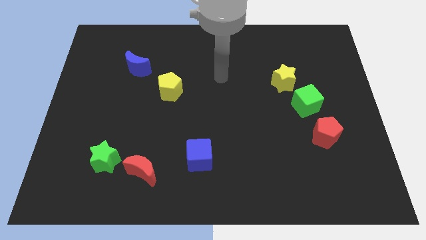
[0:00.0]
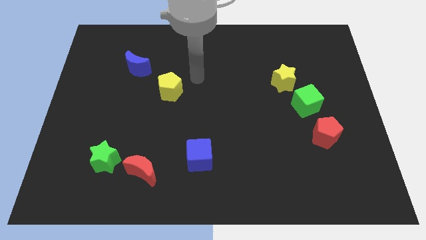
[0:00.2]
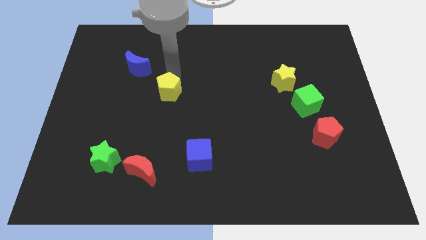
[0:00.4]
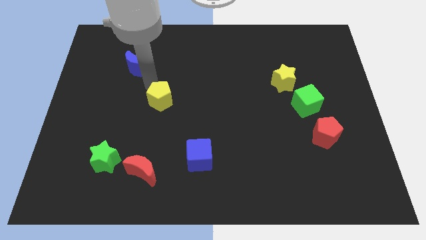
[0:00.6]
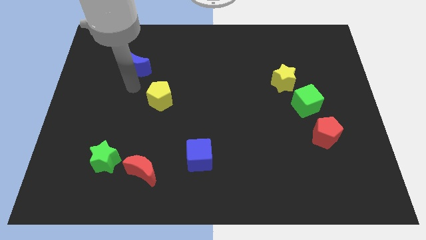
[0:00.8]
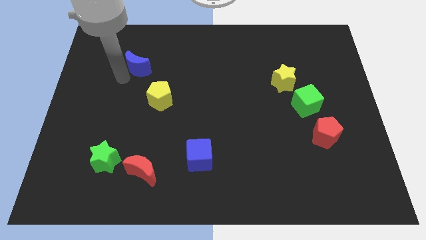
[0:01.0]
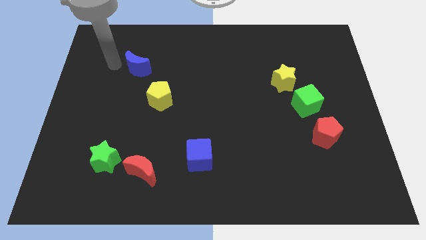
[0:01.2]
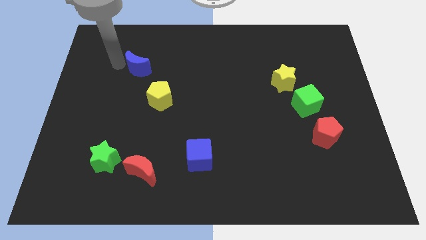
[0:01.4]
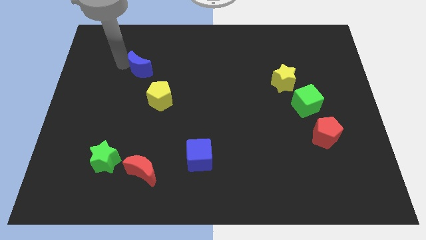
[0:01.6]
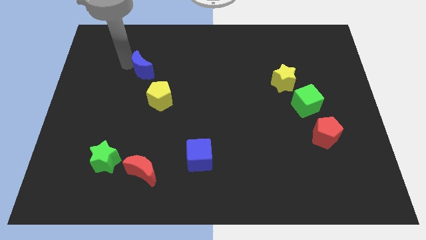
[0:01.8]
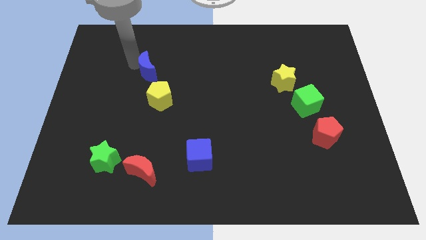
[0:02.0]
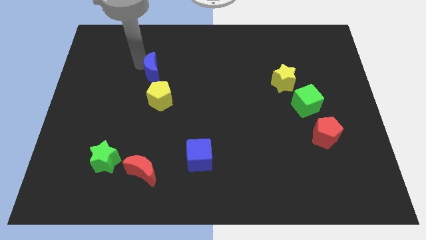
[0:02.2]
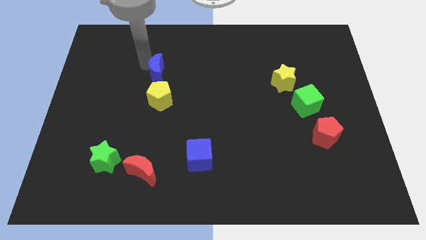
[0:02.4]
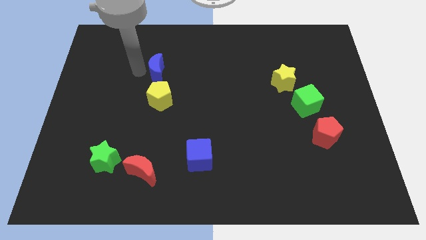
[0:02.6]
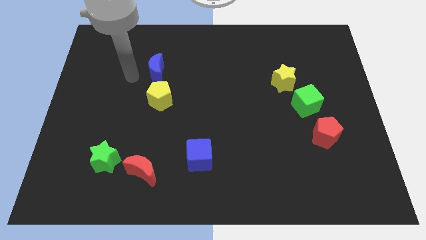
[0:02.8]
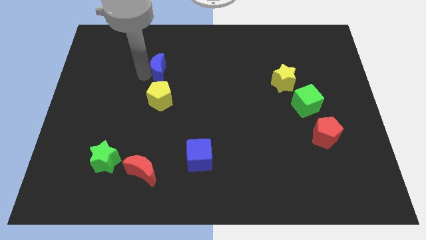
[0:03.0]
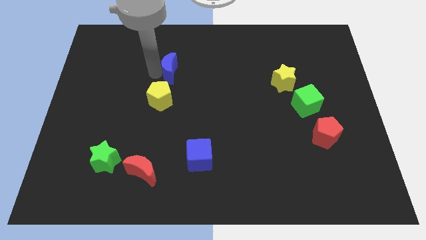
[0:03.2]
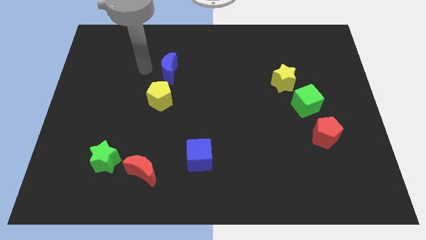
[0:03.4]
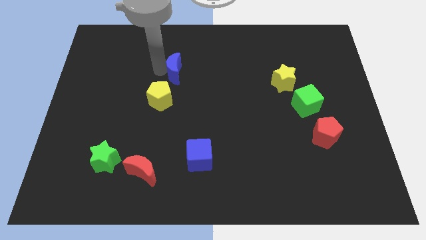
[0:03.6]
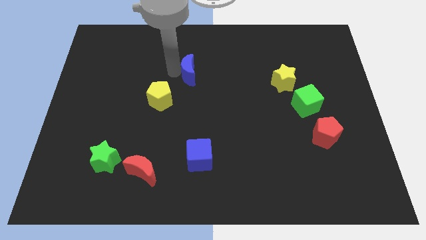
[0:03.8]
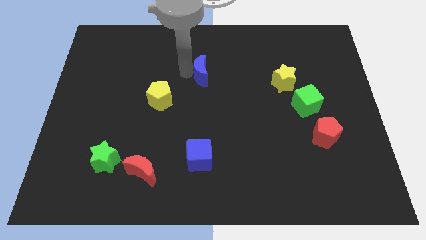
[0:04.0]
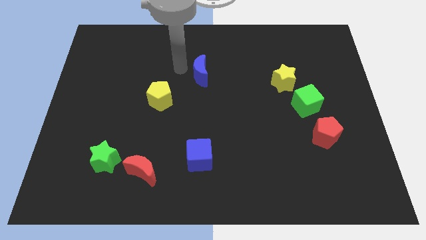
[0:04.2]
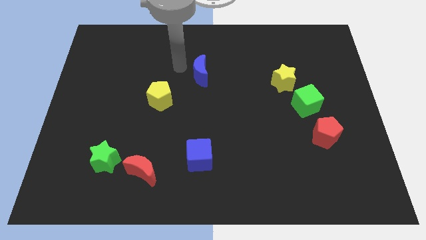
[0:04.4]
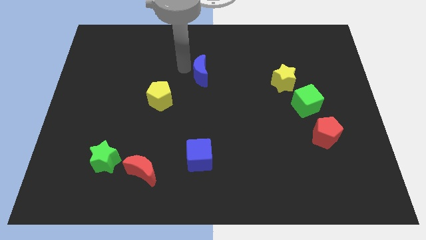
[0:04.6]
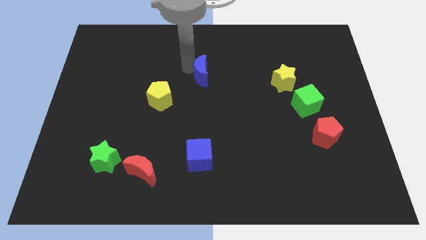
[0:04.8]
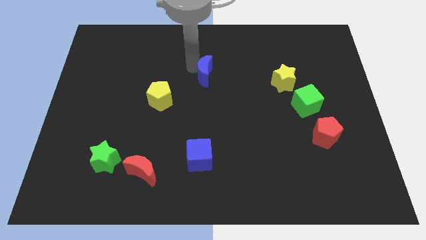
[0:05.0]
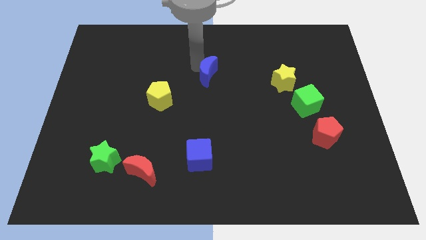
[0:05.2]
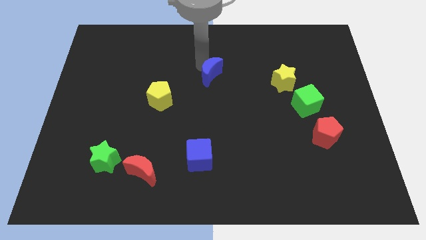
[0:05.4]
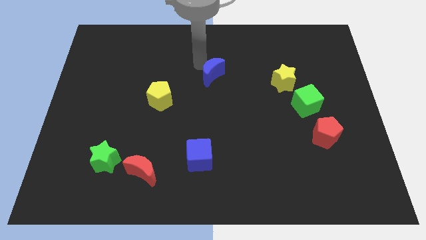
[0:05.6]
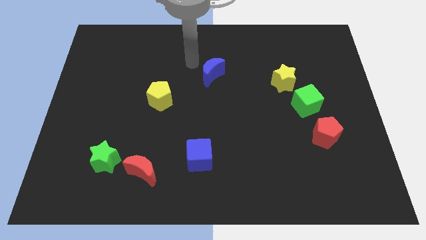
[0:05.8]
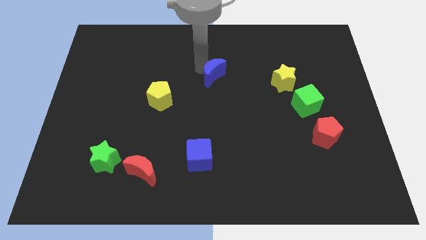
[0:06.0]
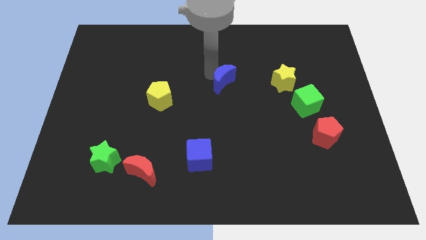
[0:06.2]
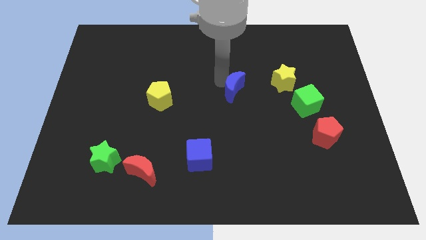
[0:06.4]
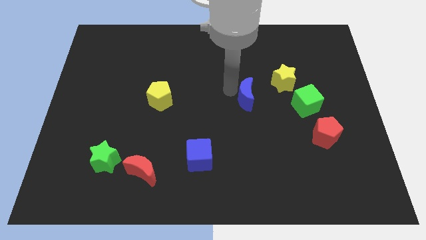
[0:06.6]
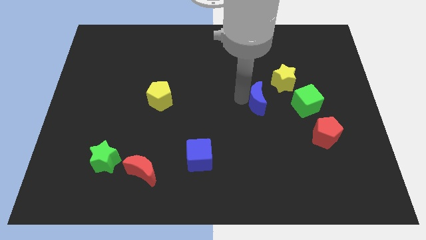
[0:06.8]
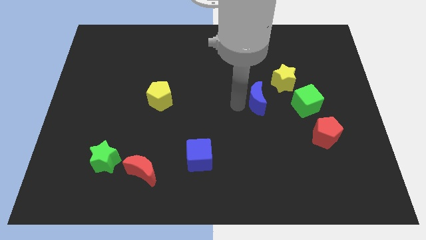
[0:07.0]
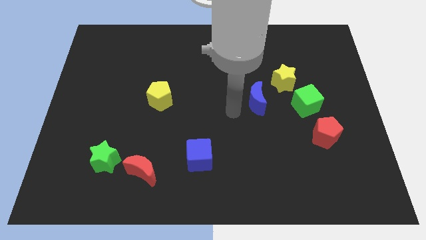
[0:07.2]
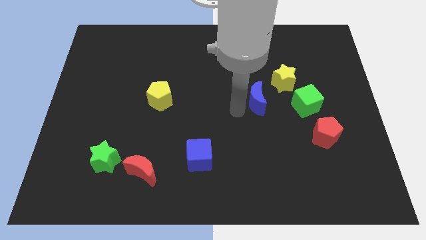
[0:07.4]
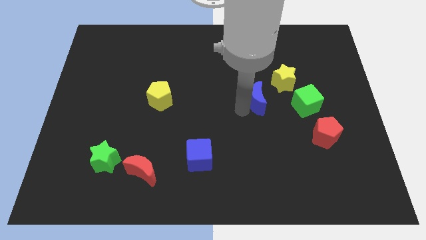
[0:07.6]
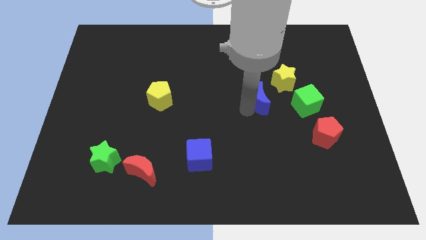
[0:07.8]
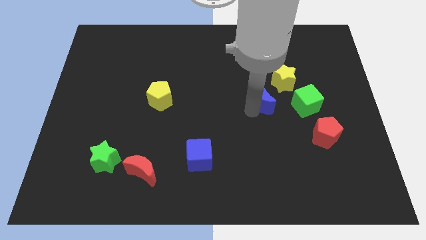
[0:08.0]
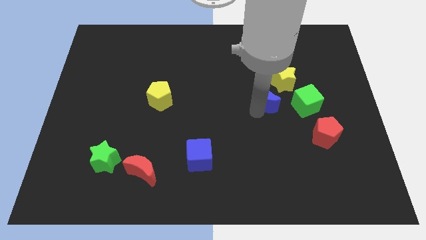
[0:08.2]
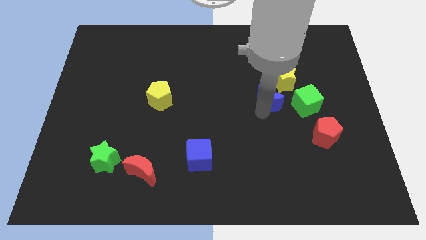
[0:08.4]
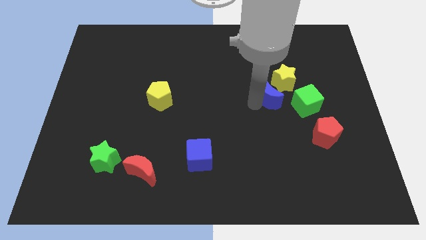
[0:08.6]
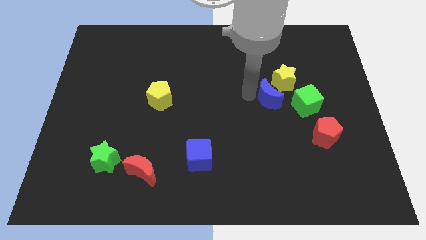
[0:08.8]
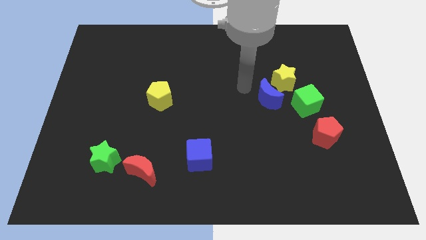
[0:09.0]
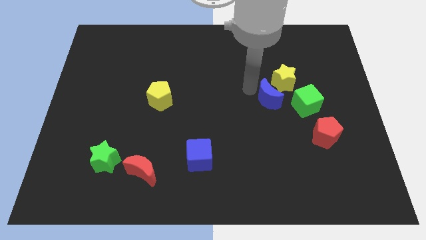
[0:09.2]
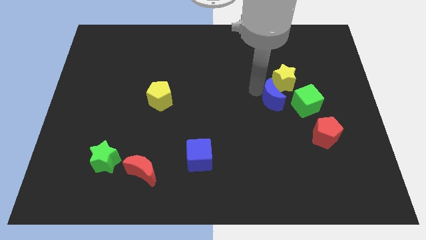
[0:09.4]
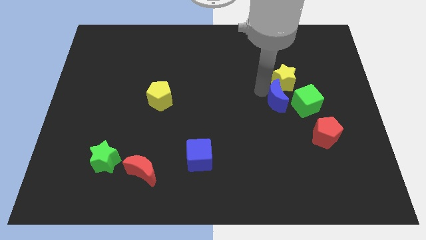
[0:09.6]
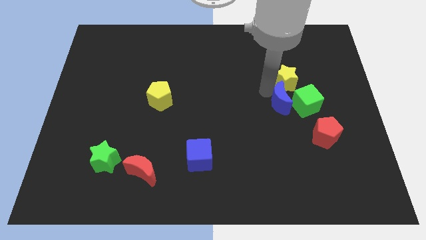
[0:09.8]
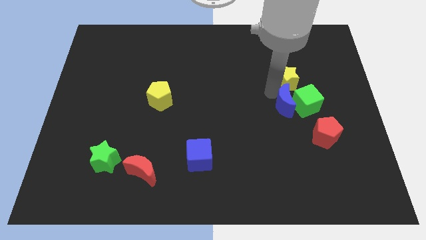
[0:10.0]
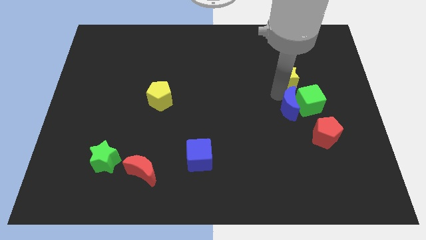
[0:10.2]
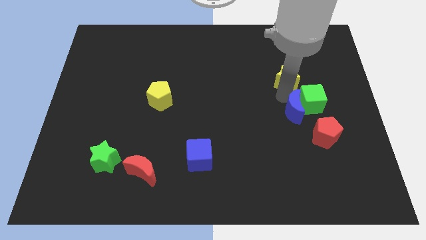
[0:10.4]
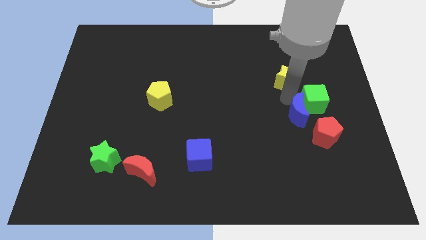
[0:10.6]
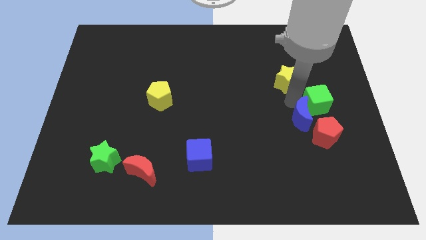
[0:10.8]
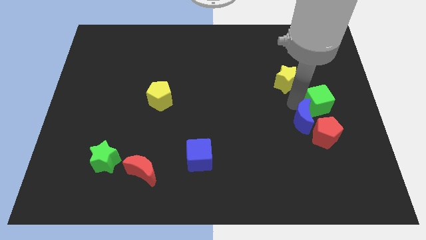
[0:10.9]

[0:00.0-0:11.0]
put the blue moon towards the red pentagon

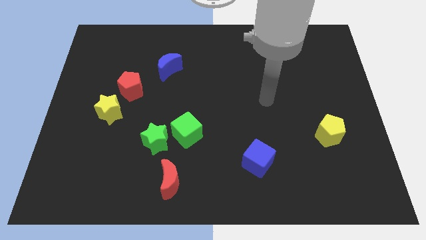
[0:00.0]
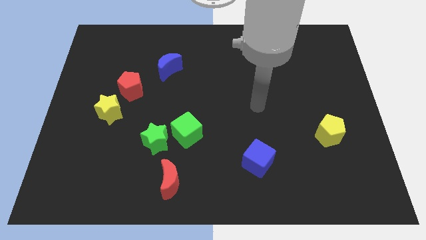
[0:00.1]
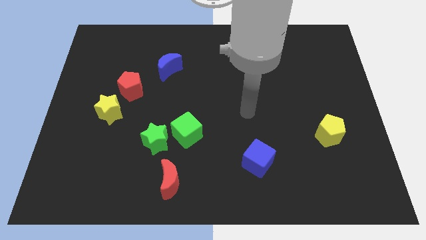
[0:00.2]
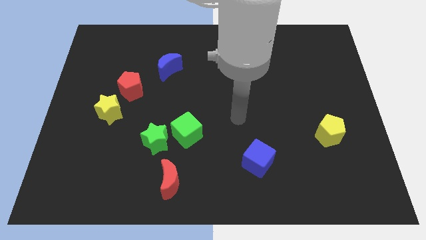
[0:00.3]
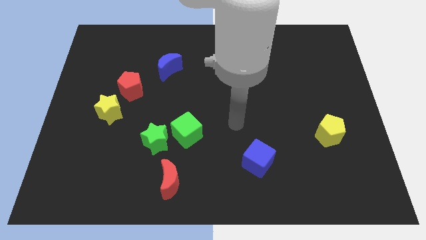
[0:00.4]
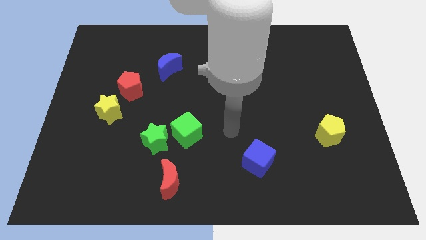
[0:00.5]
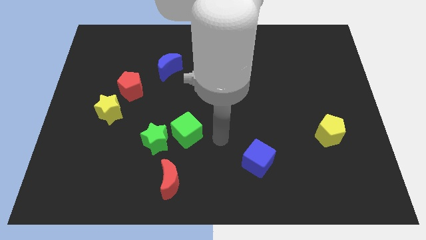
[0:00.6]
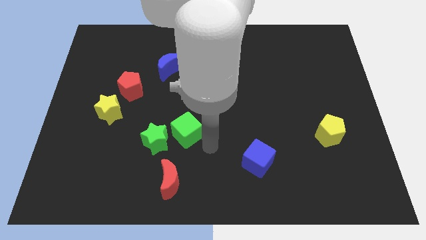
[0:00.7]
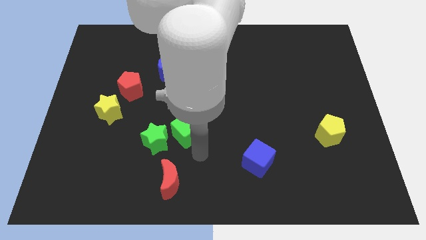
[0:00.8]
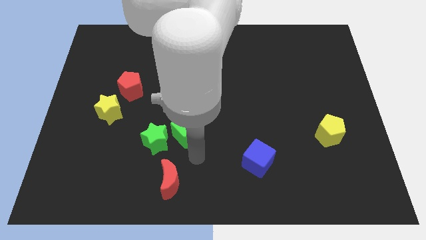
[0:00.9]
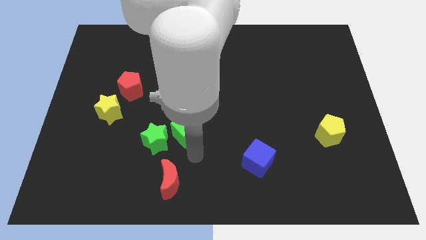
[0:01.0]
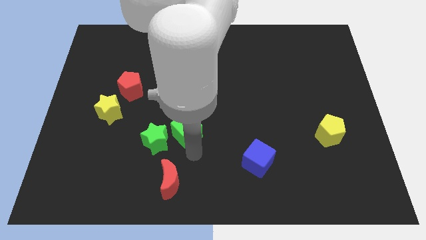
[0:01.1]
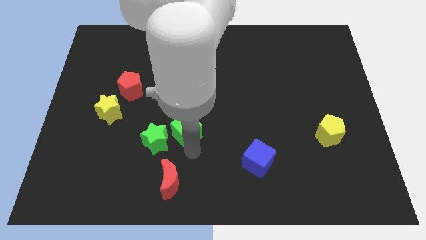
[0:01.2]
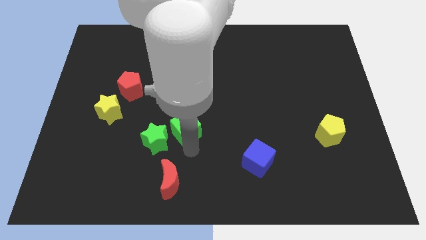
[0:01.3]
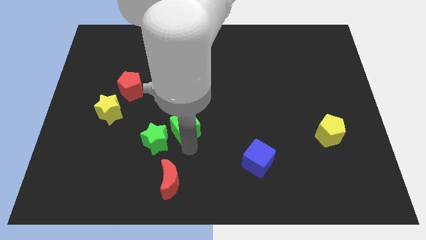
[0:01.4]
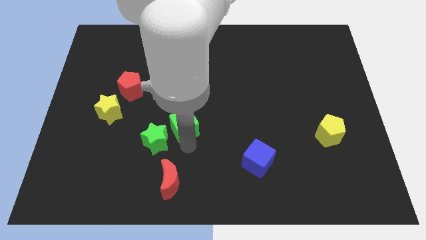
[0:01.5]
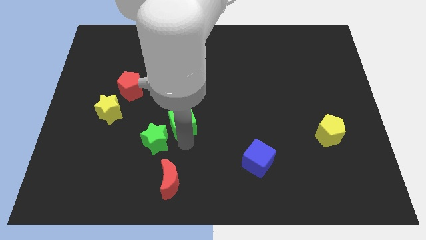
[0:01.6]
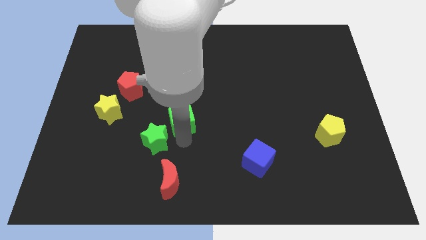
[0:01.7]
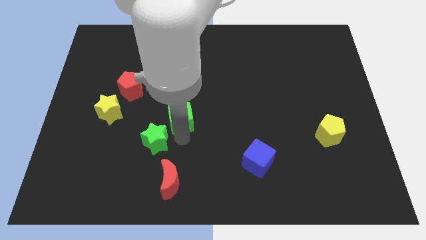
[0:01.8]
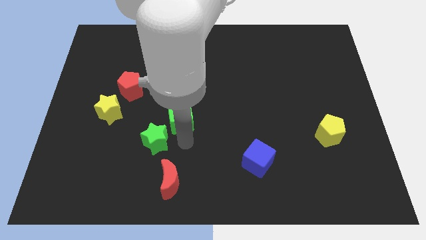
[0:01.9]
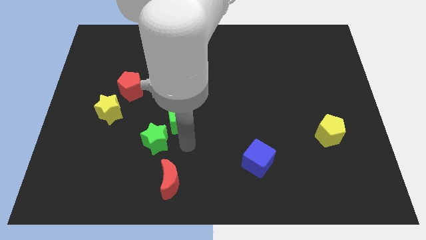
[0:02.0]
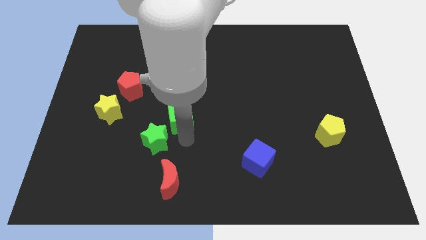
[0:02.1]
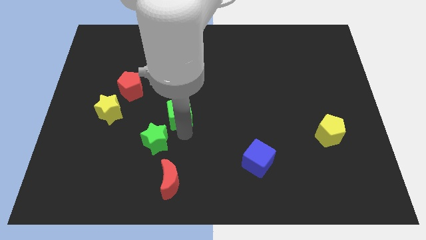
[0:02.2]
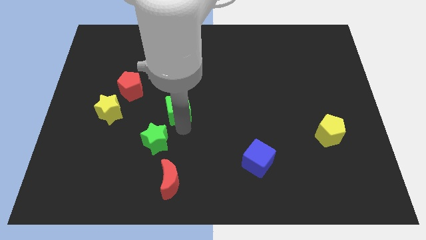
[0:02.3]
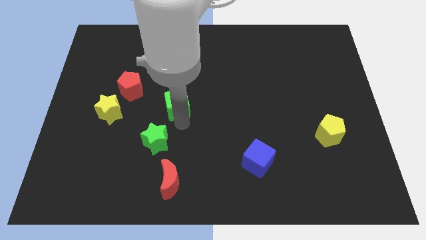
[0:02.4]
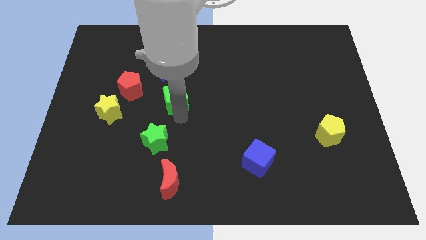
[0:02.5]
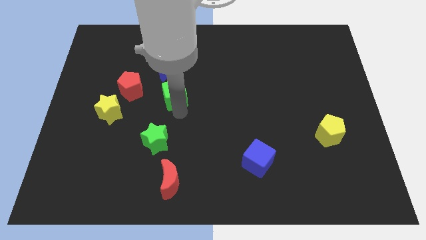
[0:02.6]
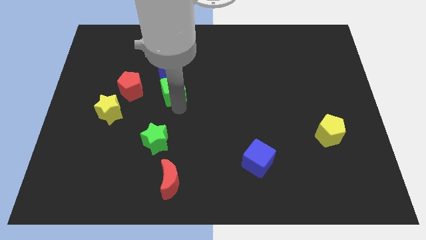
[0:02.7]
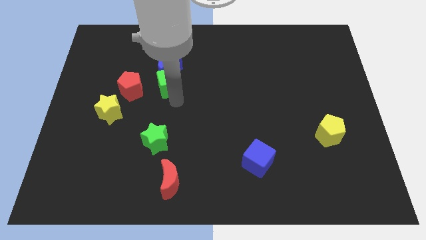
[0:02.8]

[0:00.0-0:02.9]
push the green cube towards the blue moon

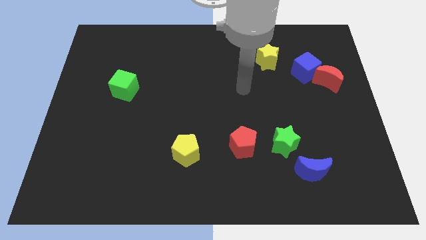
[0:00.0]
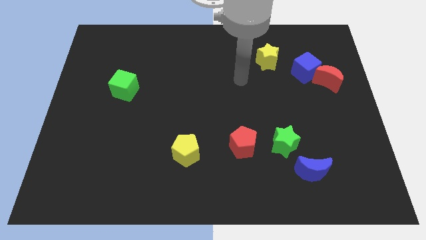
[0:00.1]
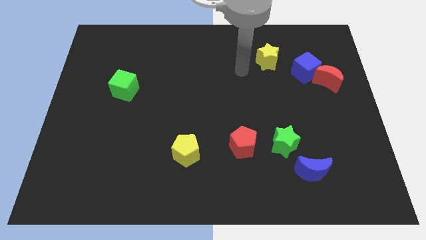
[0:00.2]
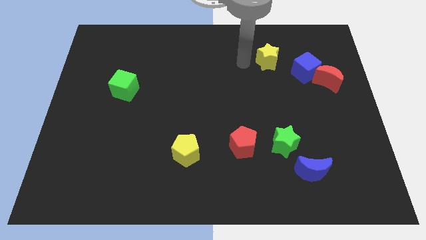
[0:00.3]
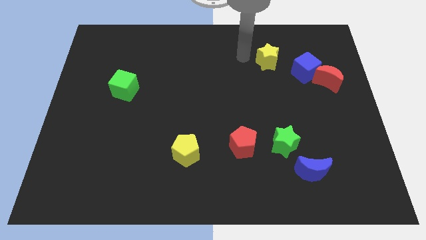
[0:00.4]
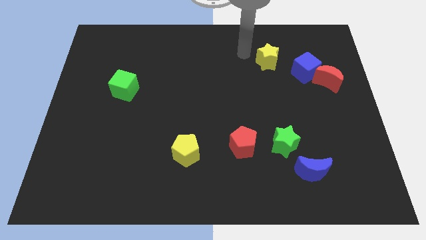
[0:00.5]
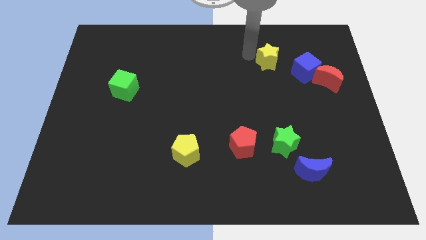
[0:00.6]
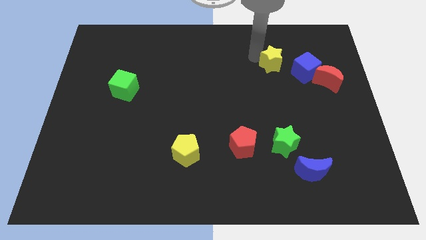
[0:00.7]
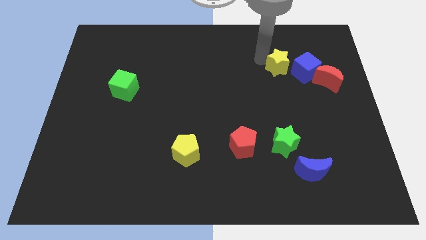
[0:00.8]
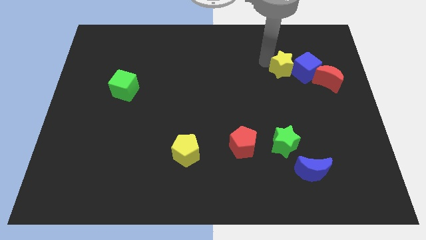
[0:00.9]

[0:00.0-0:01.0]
put the yellow star next to the blue cube
